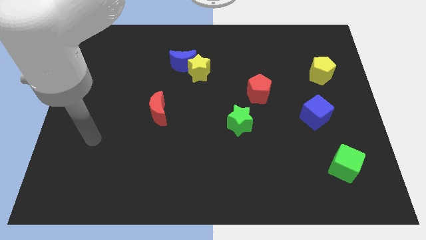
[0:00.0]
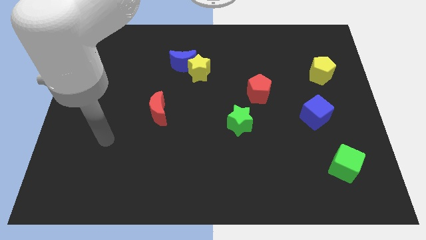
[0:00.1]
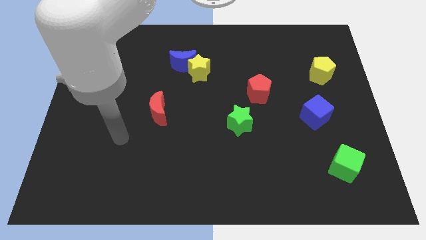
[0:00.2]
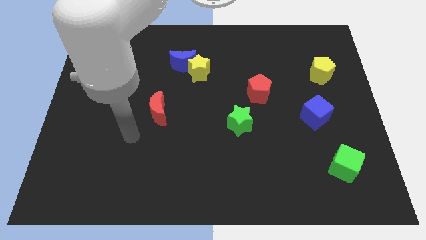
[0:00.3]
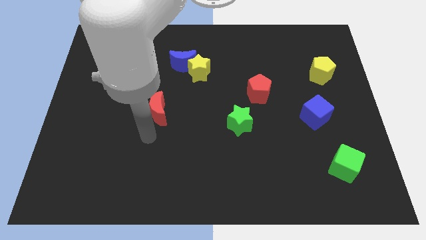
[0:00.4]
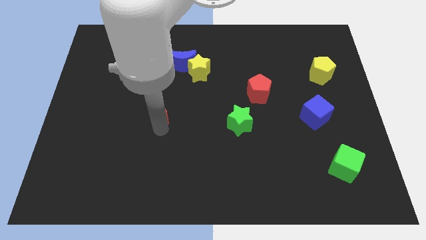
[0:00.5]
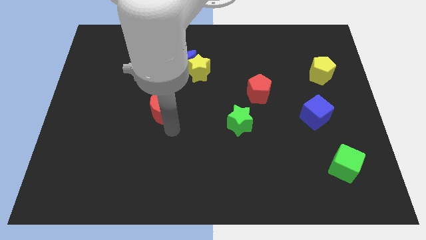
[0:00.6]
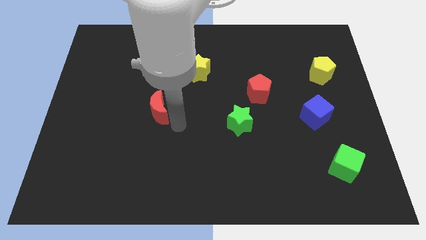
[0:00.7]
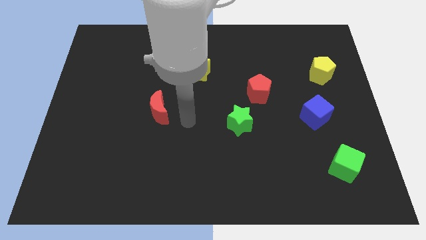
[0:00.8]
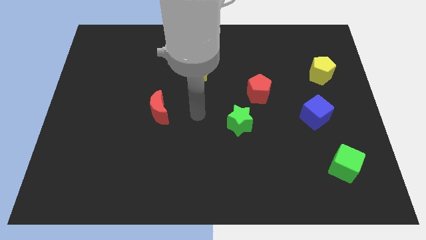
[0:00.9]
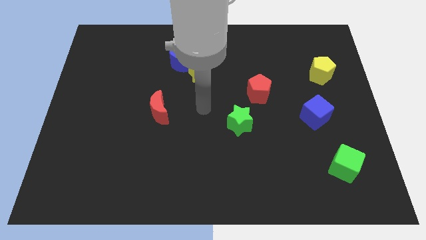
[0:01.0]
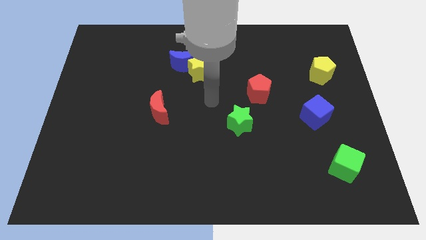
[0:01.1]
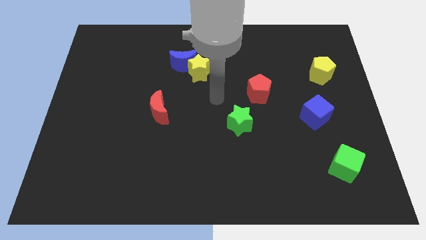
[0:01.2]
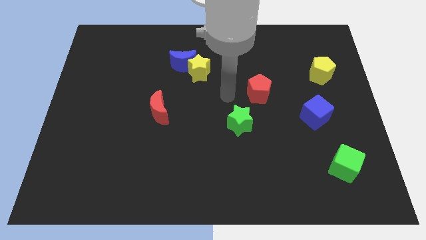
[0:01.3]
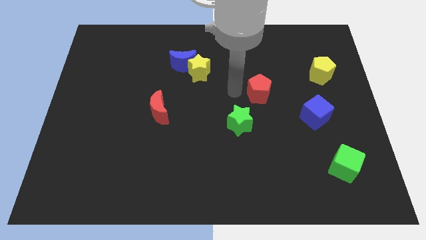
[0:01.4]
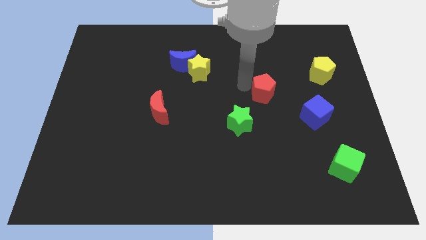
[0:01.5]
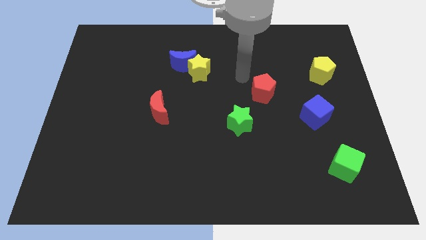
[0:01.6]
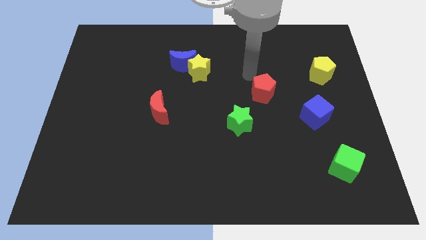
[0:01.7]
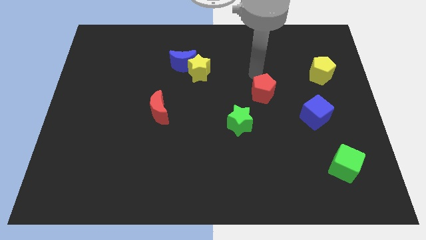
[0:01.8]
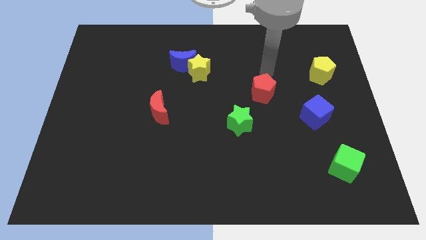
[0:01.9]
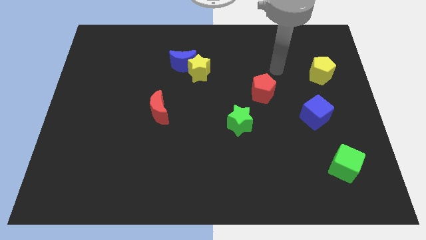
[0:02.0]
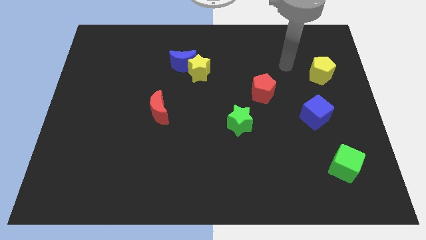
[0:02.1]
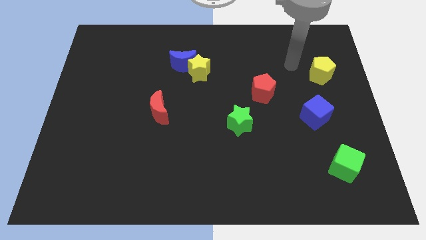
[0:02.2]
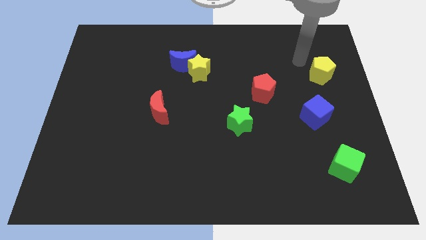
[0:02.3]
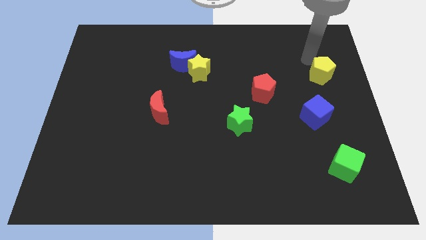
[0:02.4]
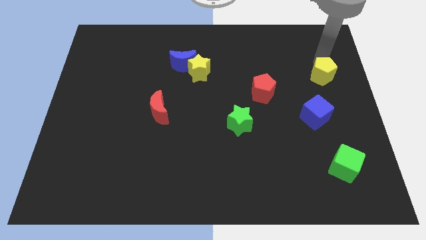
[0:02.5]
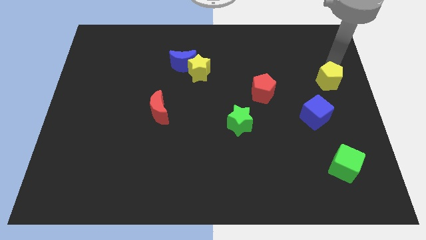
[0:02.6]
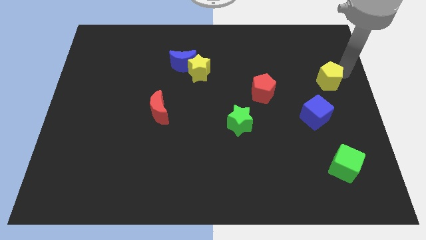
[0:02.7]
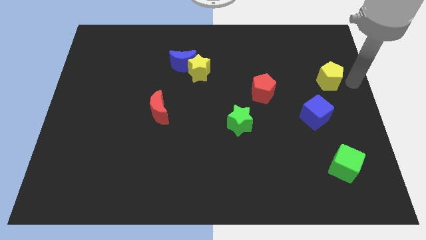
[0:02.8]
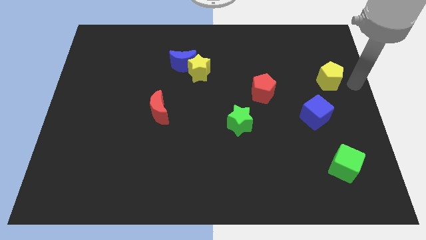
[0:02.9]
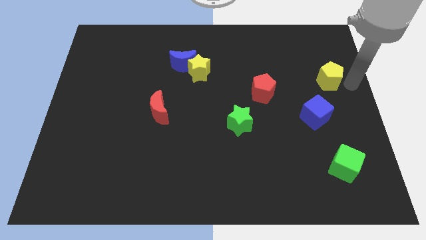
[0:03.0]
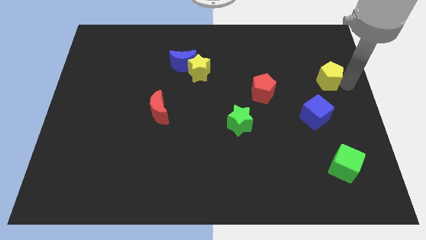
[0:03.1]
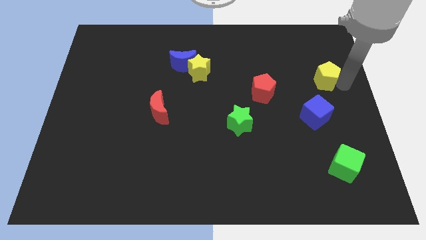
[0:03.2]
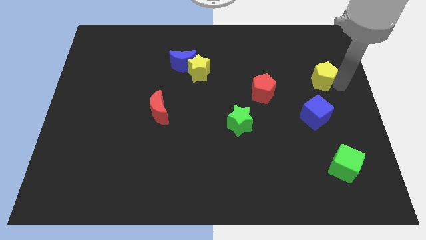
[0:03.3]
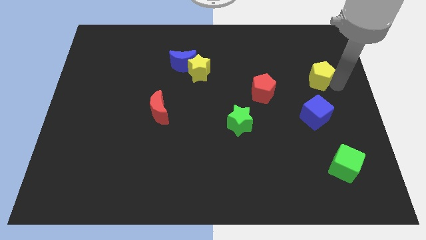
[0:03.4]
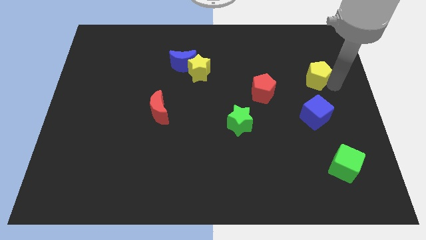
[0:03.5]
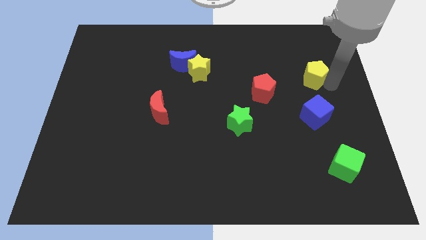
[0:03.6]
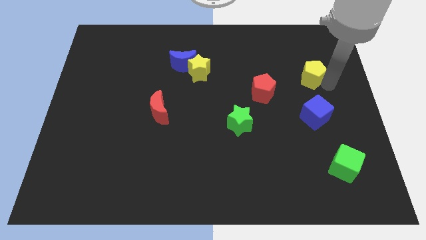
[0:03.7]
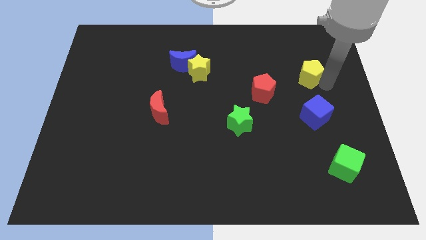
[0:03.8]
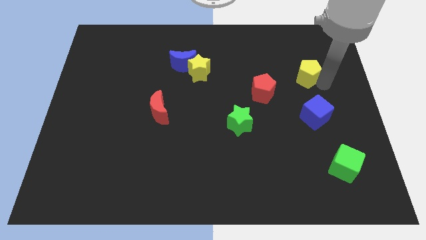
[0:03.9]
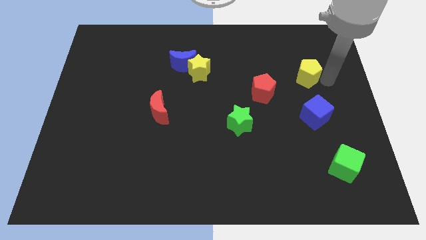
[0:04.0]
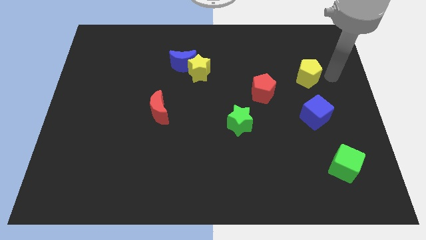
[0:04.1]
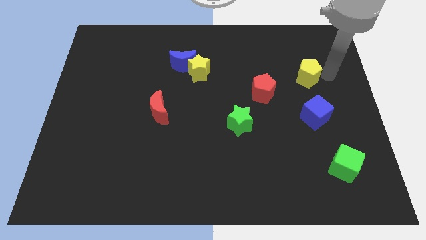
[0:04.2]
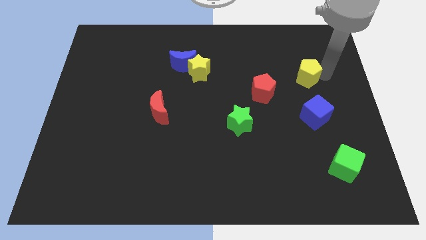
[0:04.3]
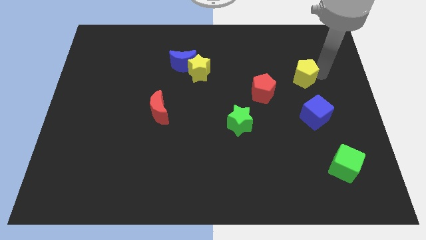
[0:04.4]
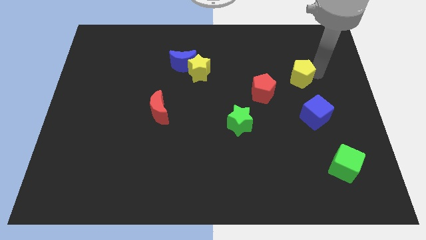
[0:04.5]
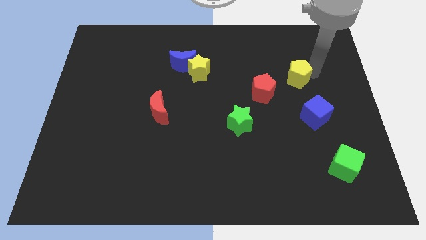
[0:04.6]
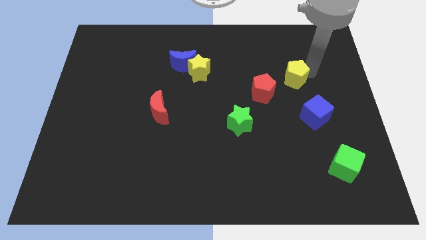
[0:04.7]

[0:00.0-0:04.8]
slide the yellow pentagon somewhat left

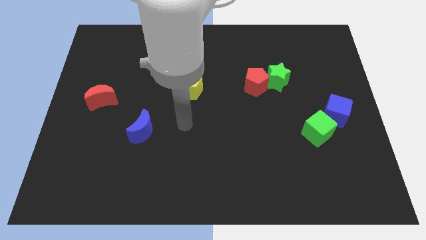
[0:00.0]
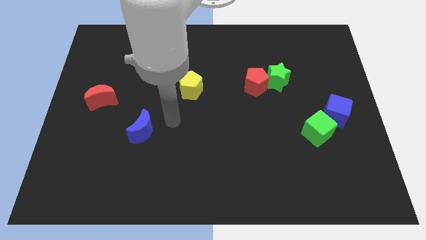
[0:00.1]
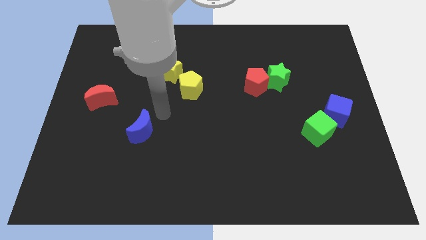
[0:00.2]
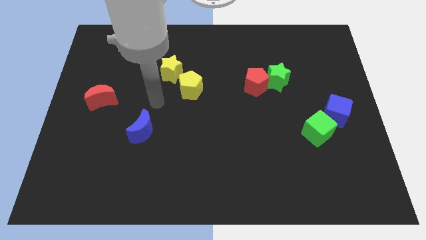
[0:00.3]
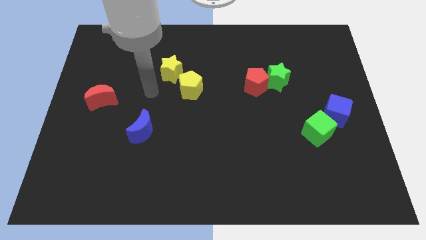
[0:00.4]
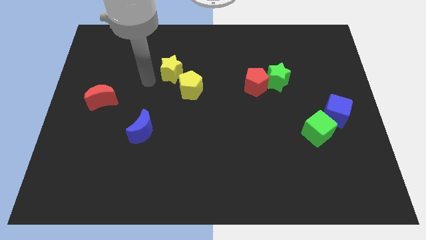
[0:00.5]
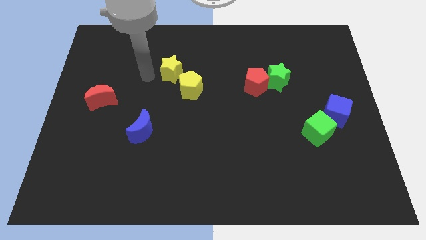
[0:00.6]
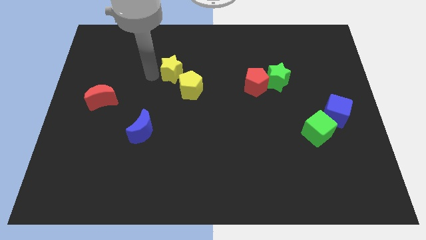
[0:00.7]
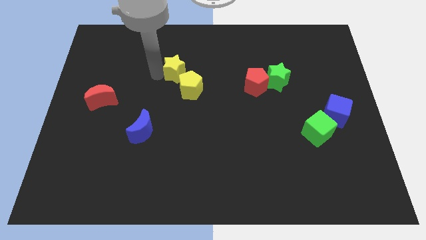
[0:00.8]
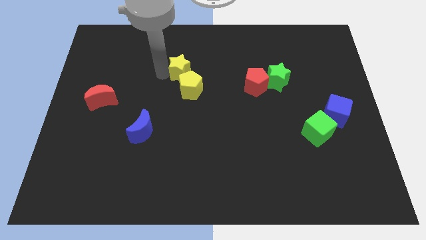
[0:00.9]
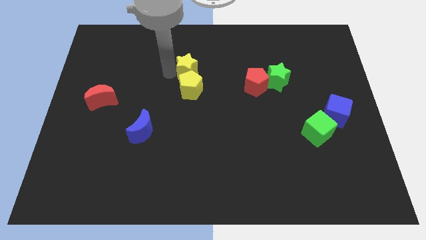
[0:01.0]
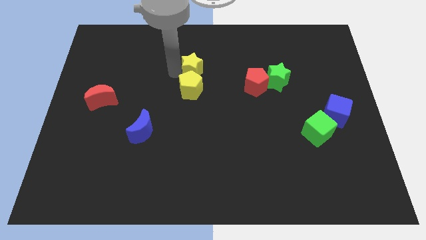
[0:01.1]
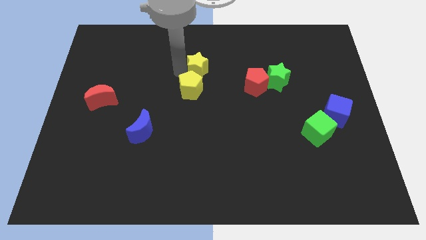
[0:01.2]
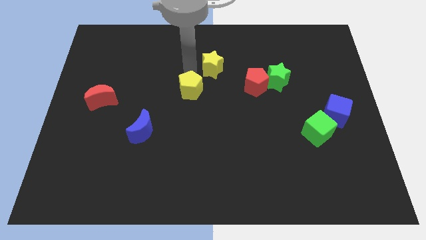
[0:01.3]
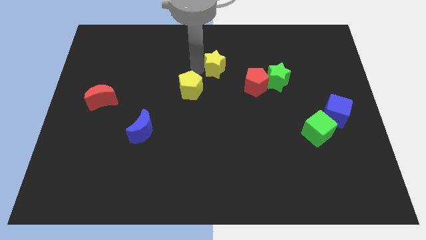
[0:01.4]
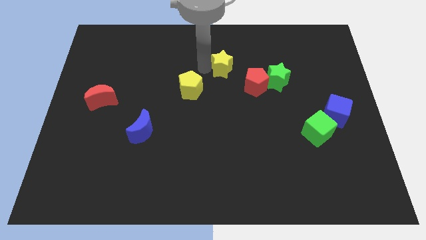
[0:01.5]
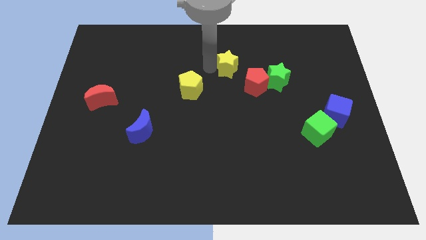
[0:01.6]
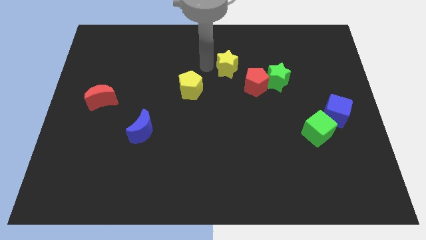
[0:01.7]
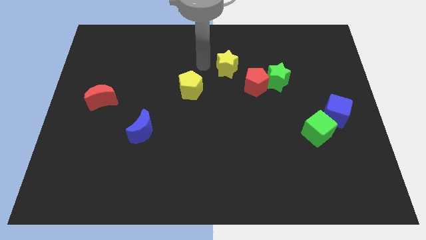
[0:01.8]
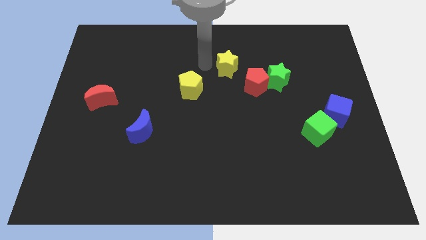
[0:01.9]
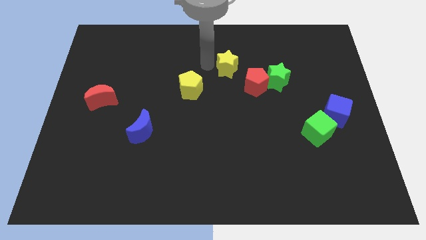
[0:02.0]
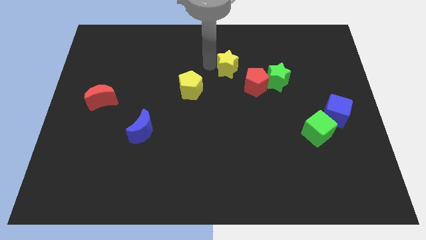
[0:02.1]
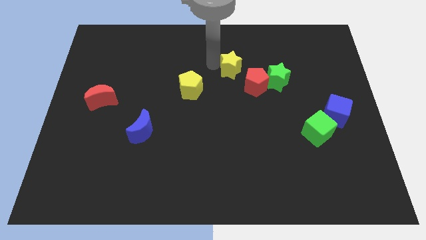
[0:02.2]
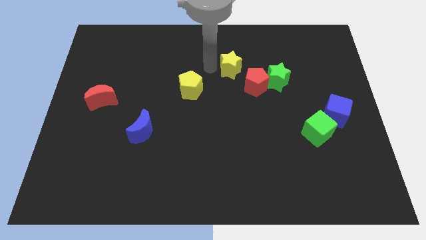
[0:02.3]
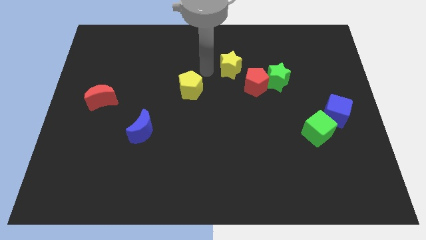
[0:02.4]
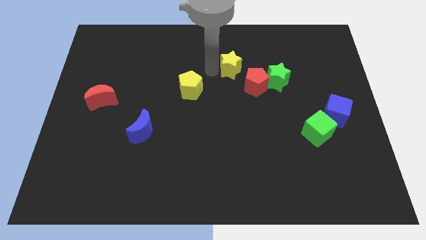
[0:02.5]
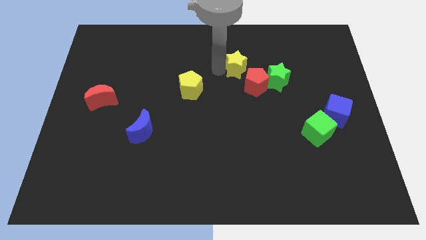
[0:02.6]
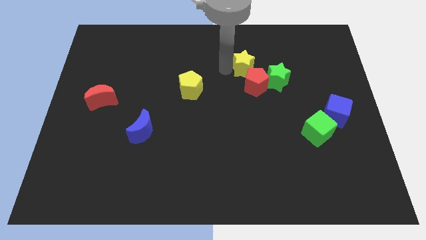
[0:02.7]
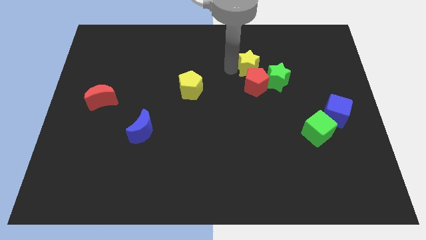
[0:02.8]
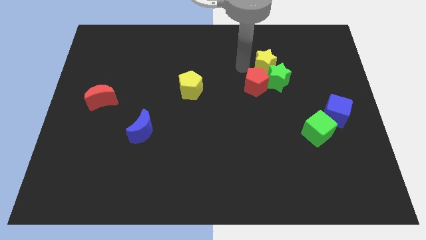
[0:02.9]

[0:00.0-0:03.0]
push the yellow star right

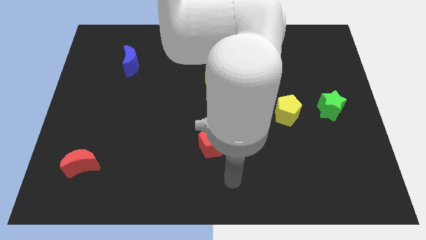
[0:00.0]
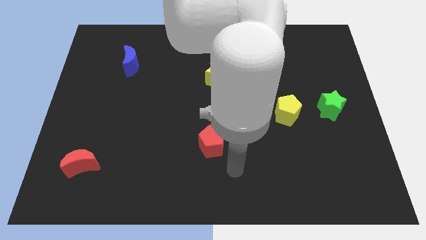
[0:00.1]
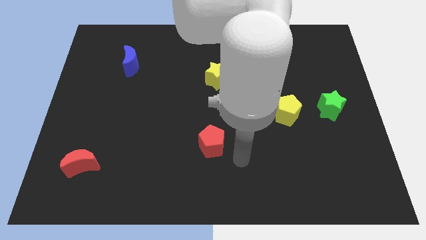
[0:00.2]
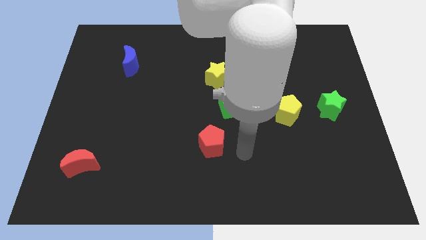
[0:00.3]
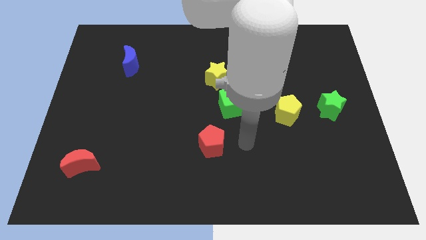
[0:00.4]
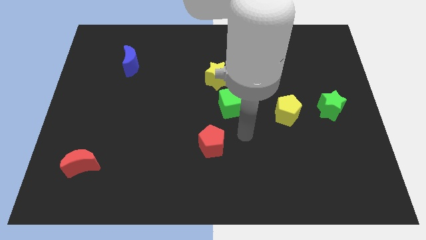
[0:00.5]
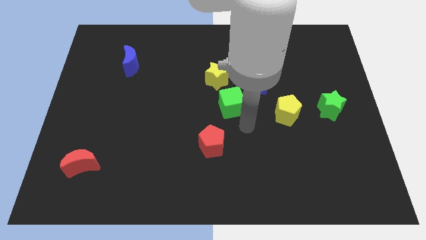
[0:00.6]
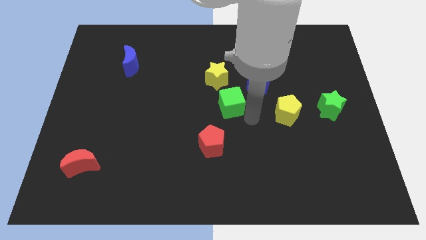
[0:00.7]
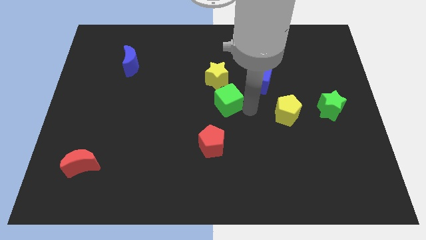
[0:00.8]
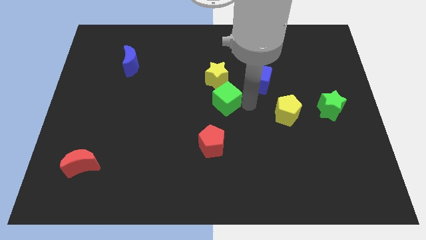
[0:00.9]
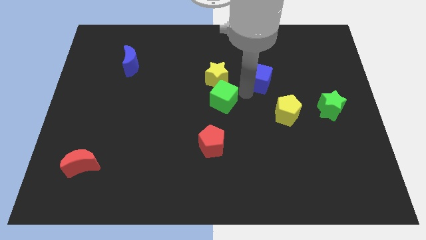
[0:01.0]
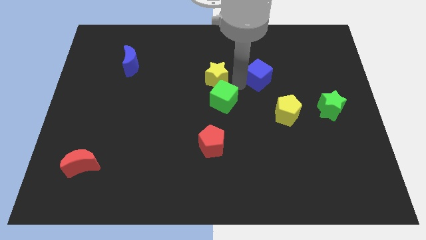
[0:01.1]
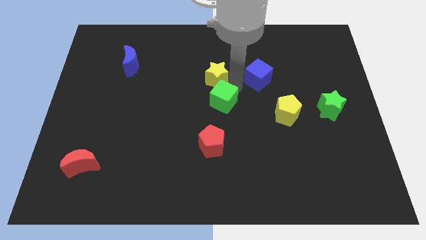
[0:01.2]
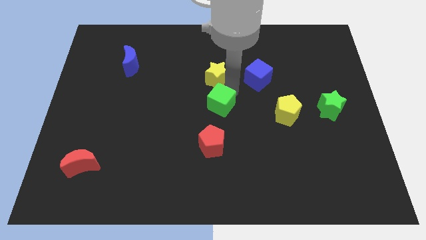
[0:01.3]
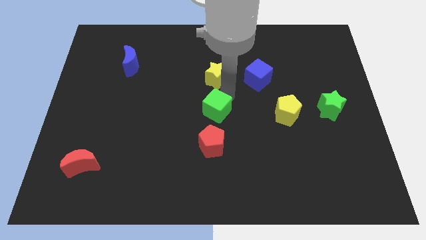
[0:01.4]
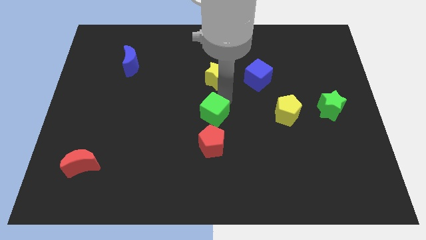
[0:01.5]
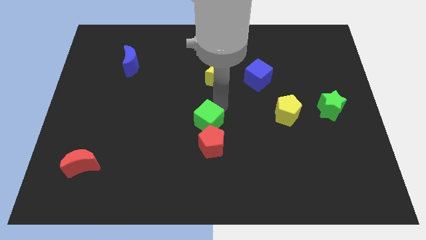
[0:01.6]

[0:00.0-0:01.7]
slightly slide the green cube diagonally downwards and left
